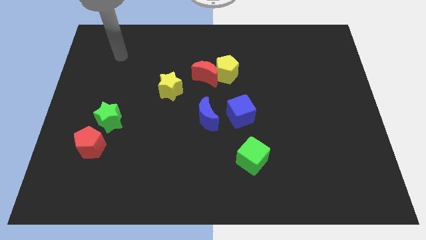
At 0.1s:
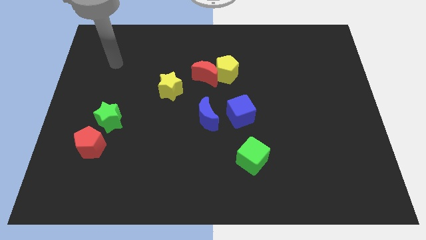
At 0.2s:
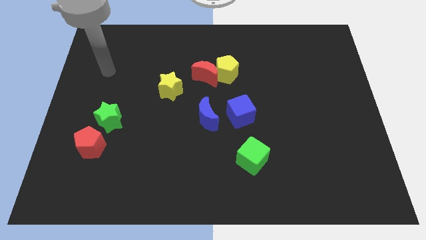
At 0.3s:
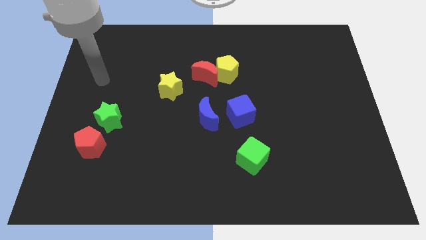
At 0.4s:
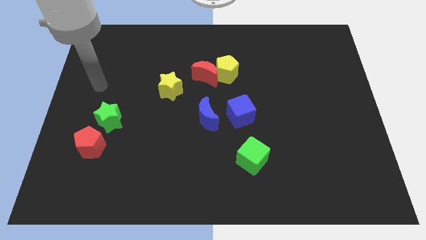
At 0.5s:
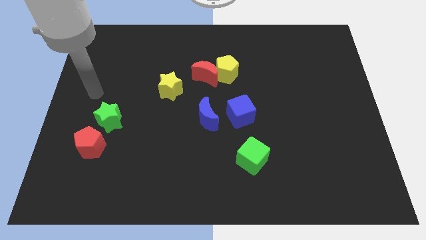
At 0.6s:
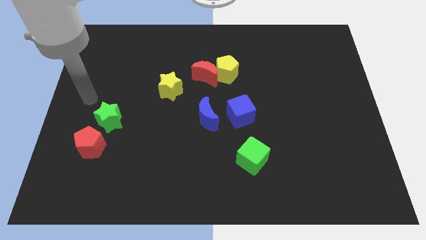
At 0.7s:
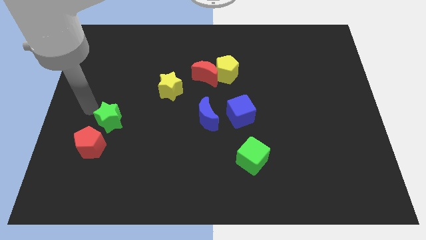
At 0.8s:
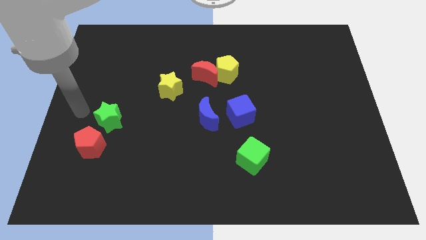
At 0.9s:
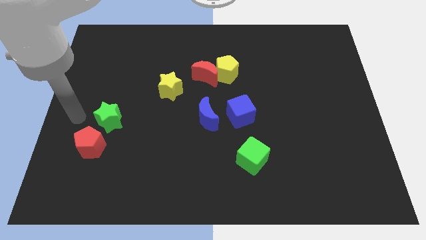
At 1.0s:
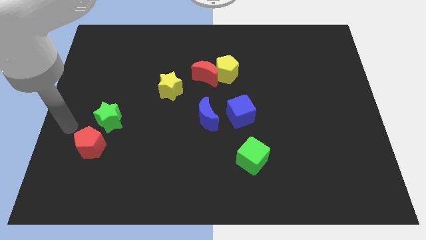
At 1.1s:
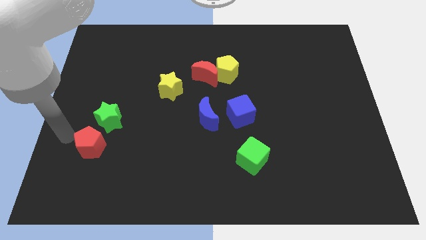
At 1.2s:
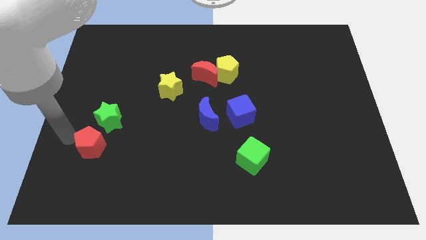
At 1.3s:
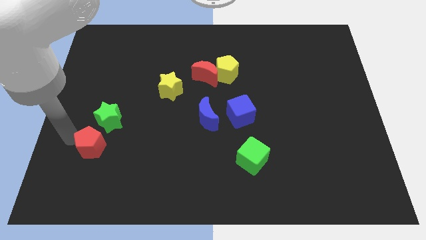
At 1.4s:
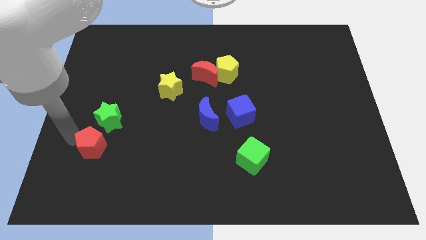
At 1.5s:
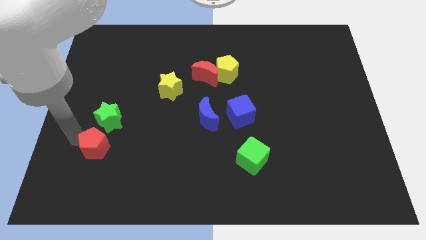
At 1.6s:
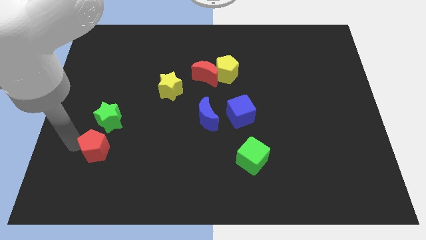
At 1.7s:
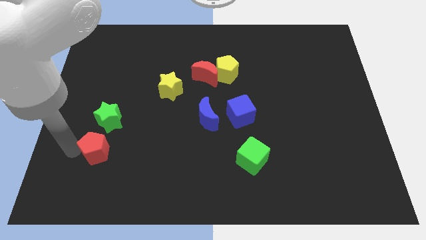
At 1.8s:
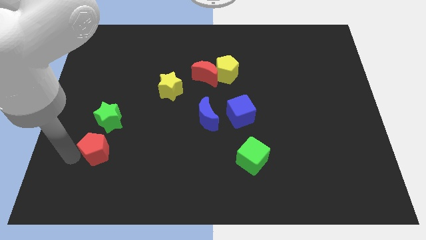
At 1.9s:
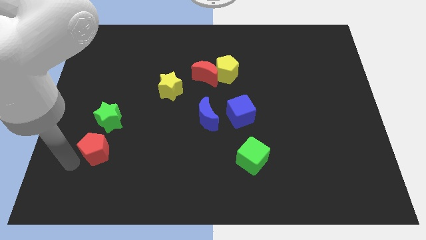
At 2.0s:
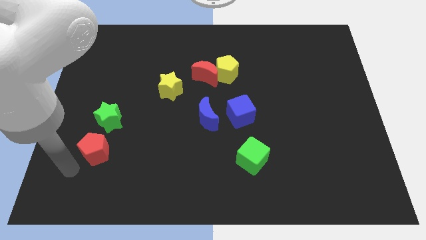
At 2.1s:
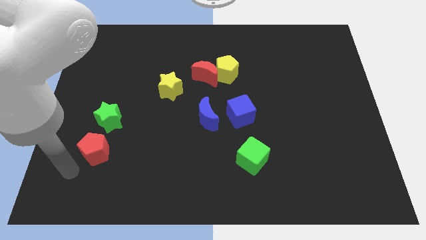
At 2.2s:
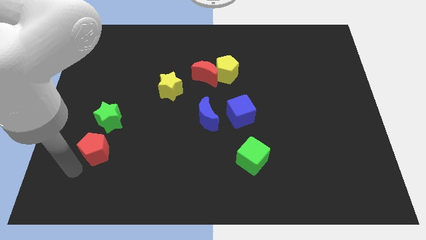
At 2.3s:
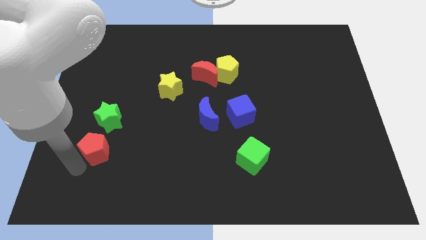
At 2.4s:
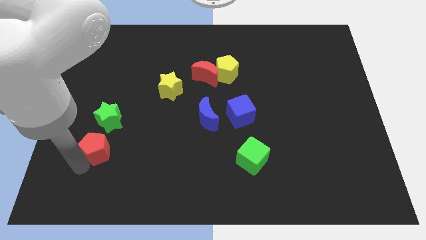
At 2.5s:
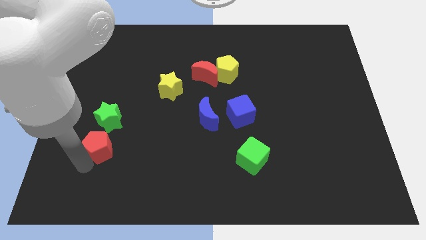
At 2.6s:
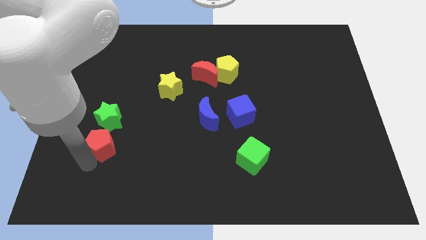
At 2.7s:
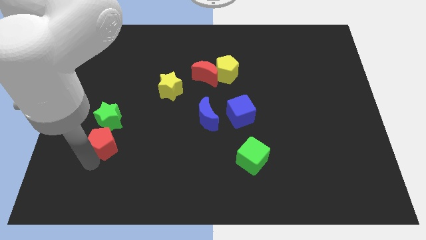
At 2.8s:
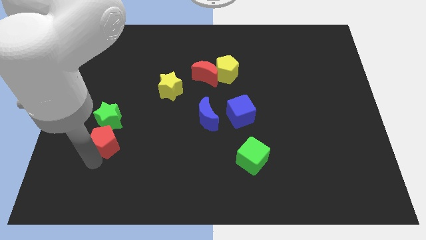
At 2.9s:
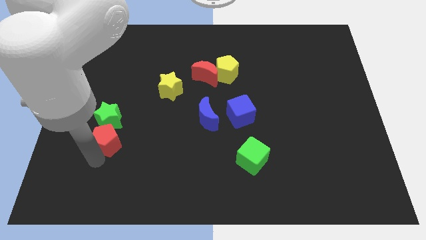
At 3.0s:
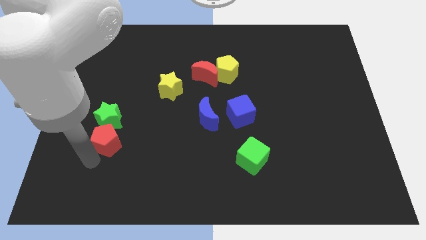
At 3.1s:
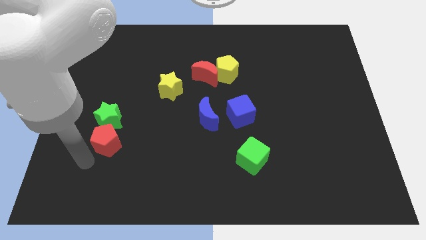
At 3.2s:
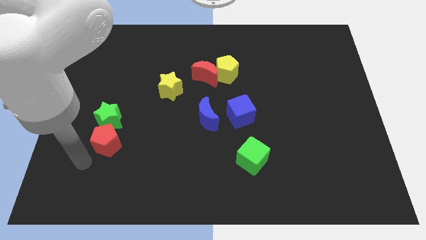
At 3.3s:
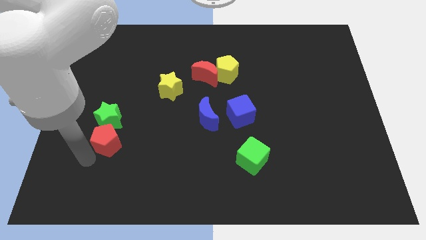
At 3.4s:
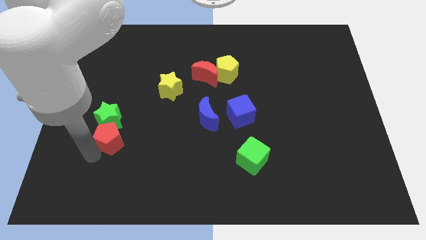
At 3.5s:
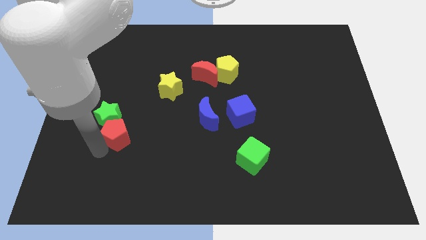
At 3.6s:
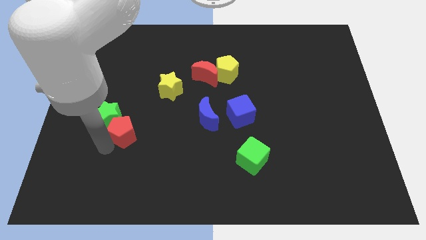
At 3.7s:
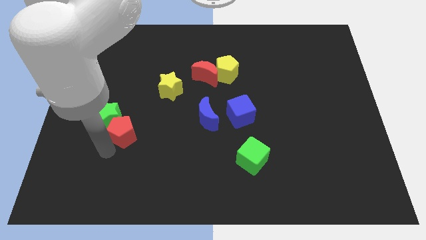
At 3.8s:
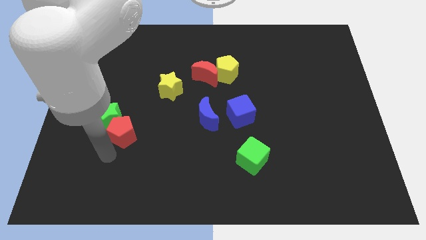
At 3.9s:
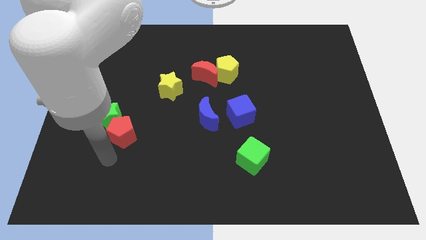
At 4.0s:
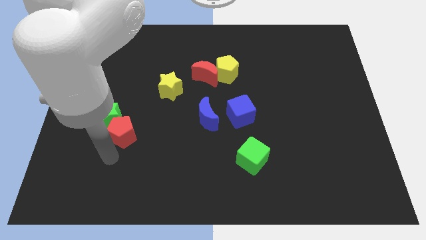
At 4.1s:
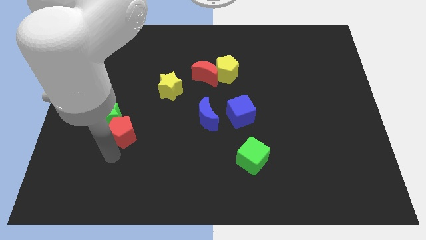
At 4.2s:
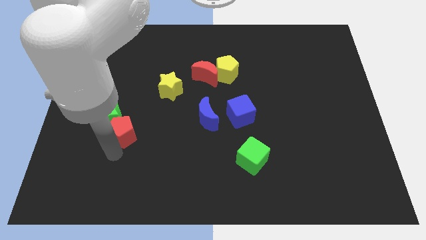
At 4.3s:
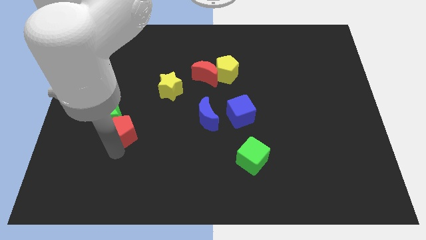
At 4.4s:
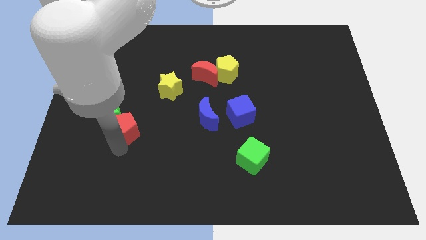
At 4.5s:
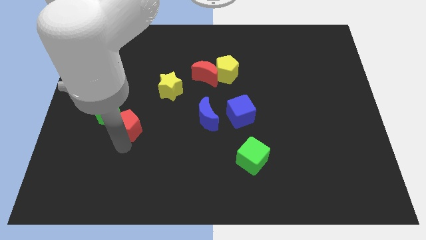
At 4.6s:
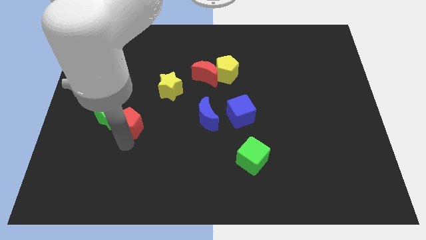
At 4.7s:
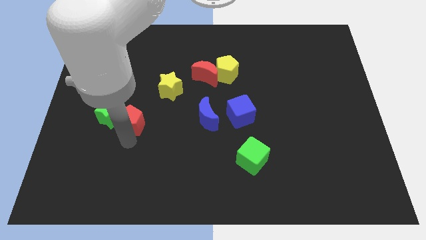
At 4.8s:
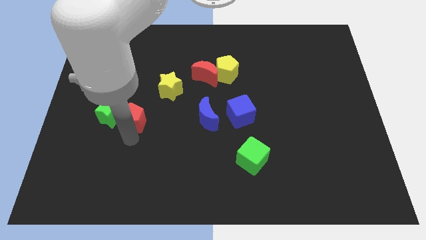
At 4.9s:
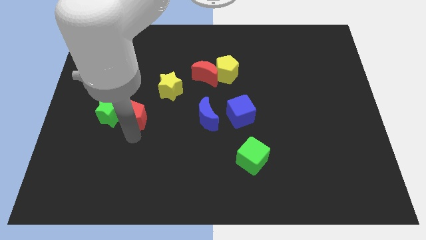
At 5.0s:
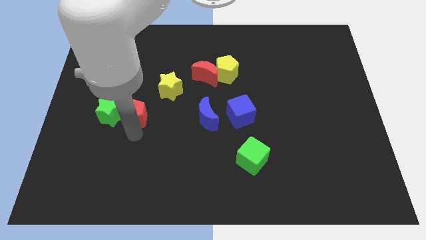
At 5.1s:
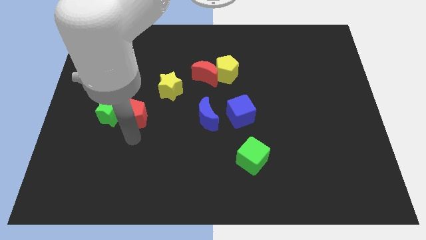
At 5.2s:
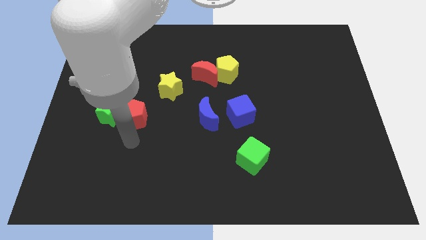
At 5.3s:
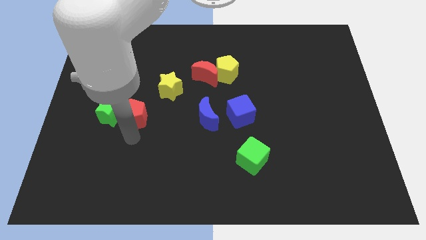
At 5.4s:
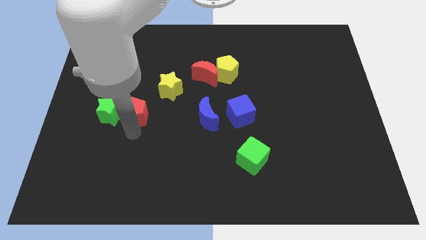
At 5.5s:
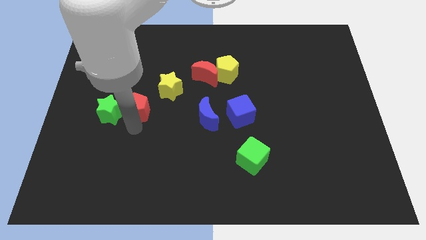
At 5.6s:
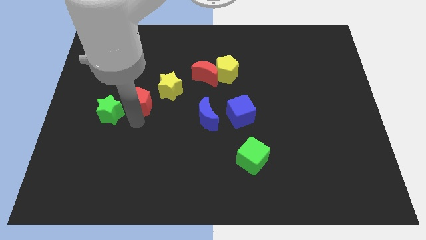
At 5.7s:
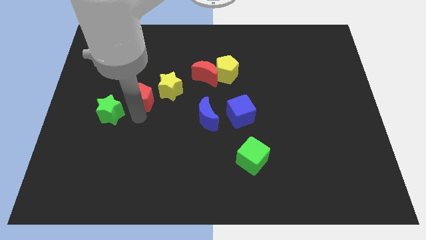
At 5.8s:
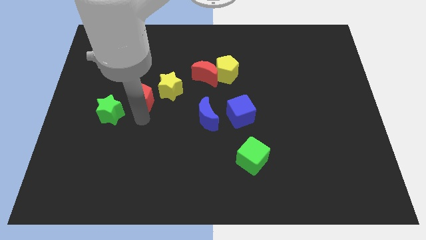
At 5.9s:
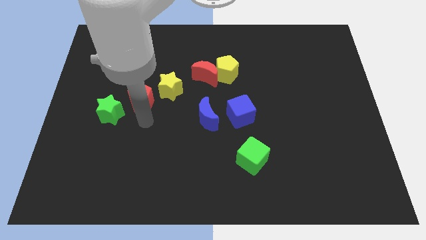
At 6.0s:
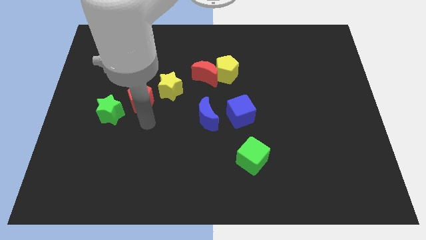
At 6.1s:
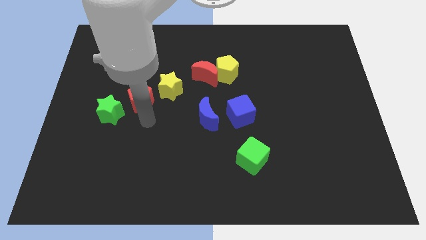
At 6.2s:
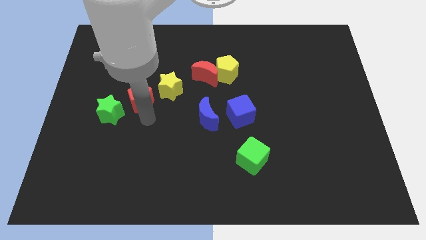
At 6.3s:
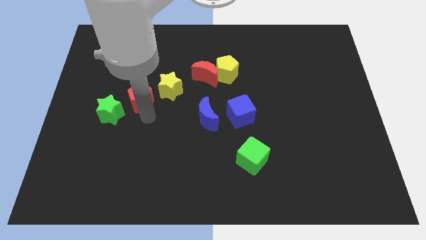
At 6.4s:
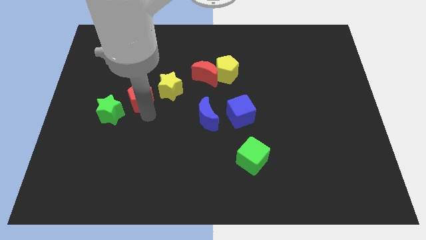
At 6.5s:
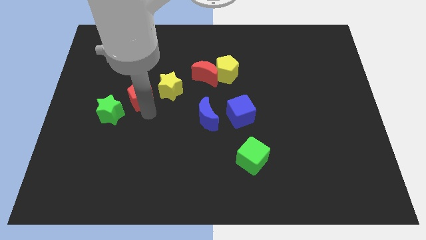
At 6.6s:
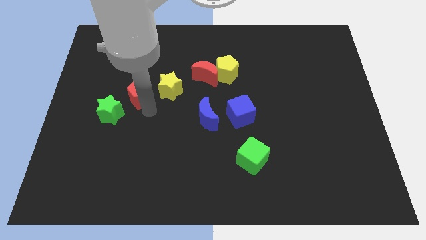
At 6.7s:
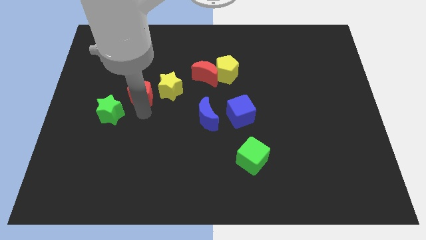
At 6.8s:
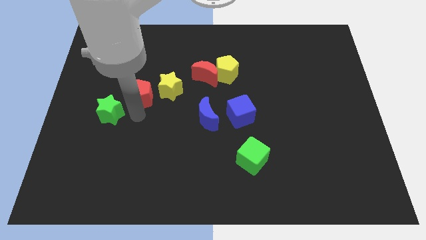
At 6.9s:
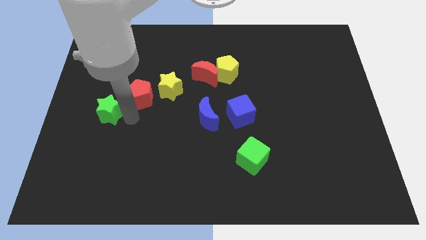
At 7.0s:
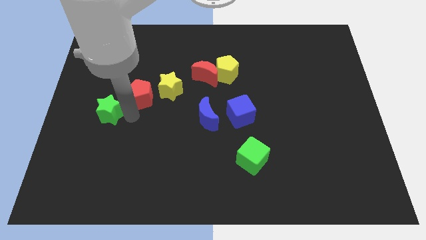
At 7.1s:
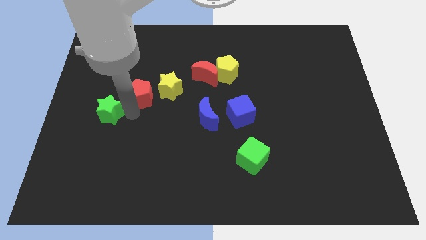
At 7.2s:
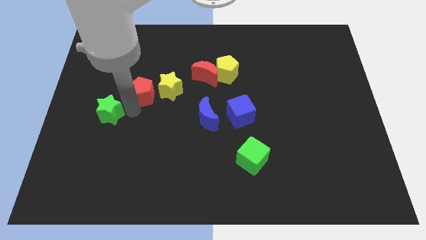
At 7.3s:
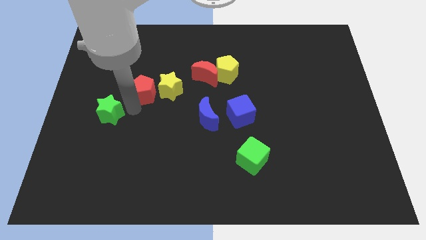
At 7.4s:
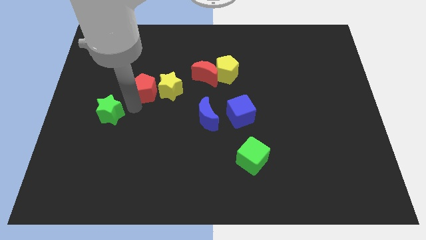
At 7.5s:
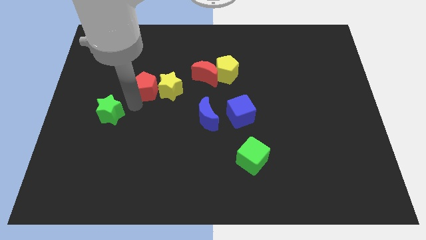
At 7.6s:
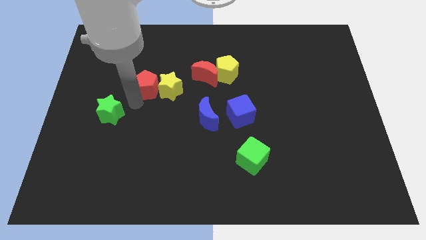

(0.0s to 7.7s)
put the red pentagon left of the red moon

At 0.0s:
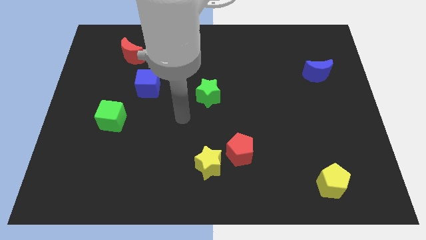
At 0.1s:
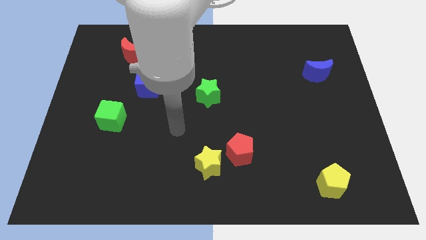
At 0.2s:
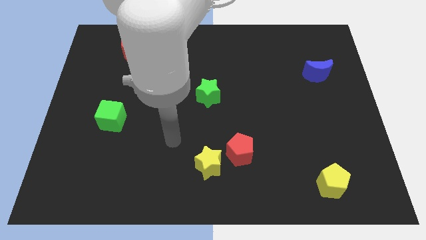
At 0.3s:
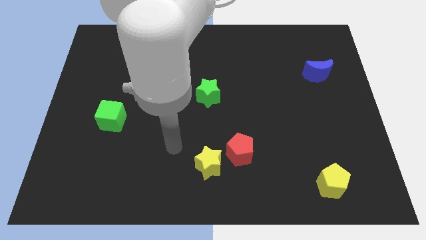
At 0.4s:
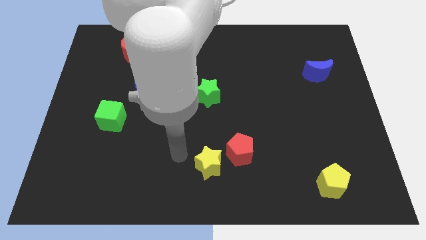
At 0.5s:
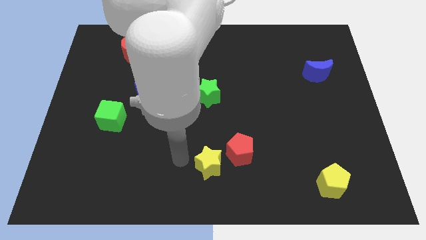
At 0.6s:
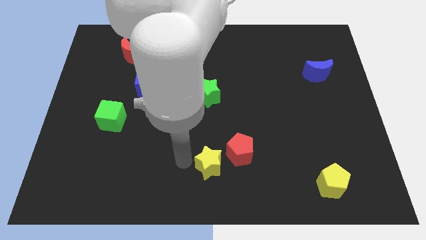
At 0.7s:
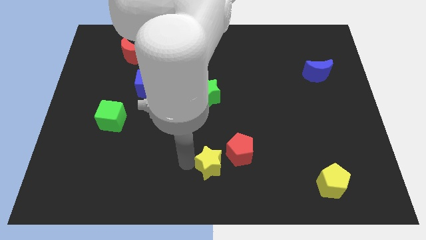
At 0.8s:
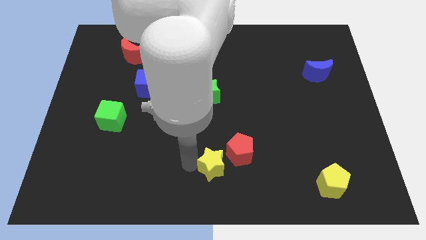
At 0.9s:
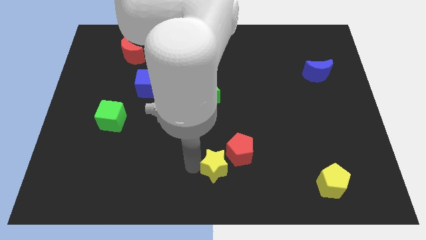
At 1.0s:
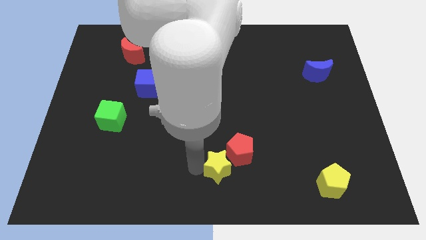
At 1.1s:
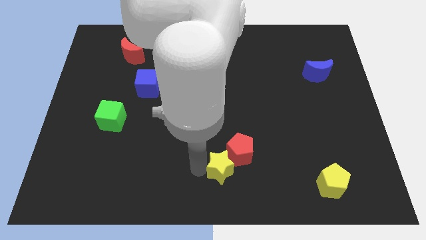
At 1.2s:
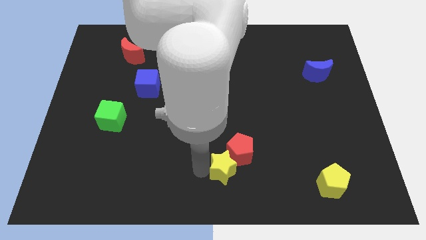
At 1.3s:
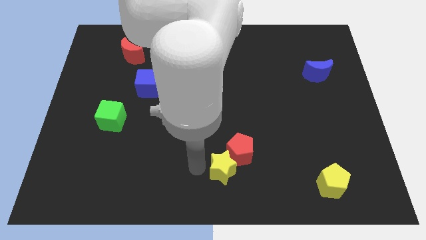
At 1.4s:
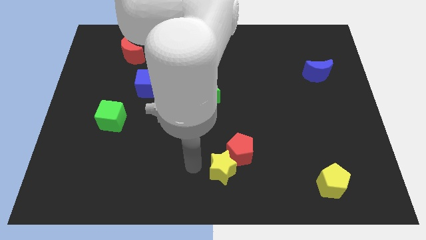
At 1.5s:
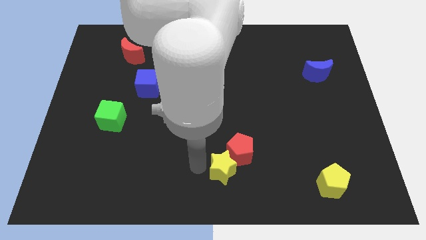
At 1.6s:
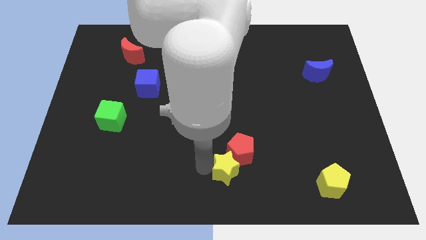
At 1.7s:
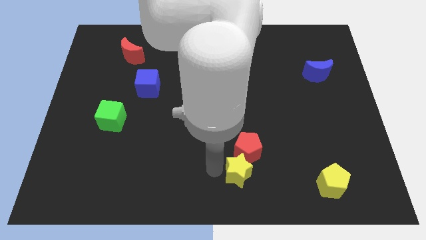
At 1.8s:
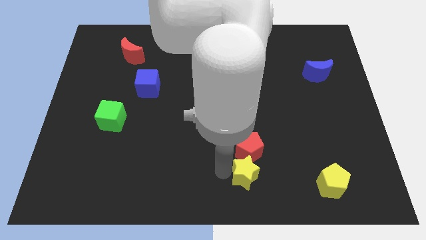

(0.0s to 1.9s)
push the yellow star to the bottom right of the red pentagon
